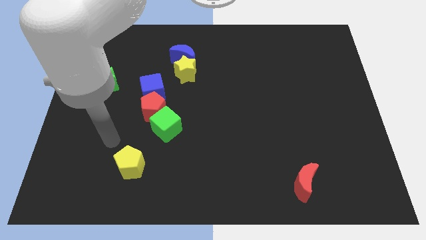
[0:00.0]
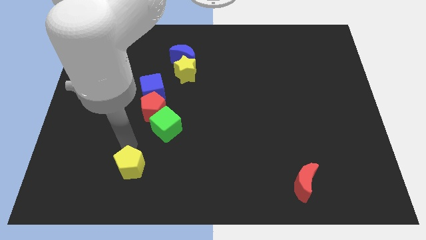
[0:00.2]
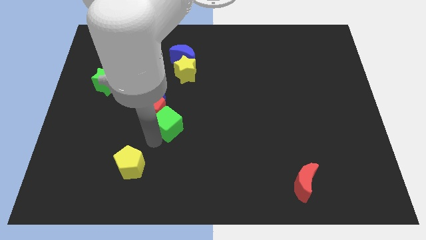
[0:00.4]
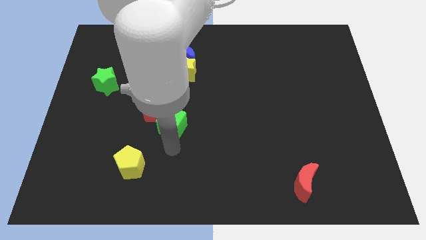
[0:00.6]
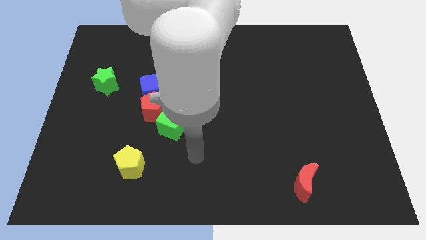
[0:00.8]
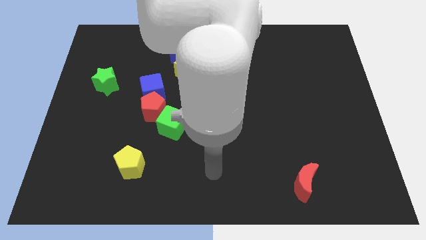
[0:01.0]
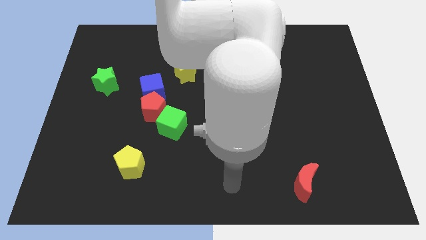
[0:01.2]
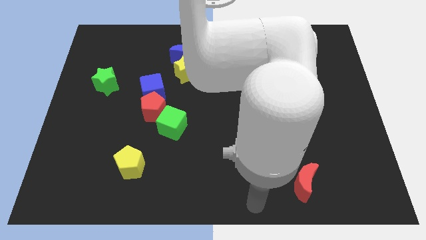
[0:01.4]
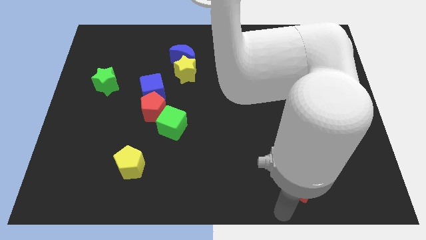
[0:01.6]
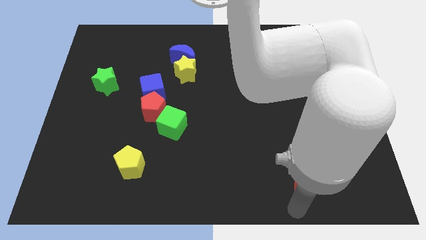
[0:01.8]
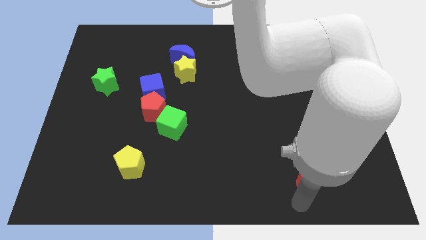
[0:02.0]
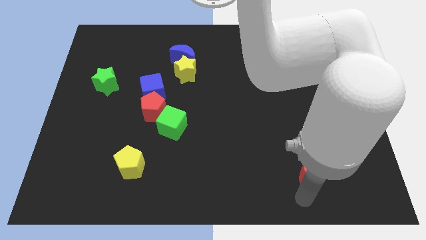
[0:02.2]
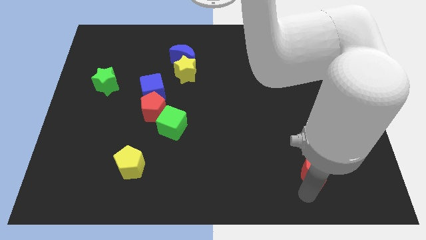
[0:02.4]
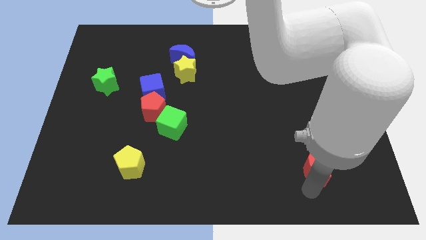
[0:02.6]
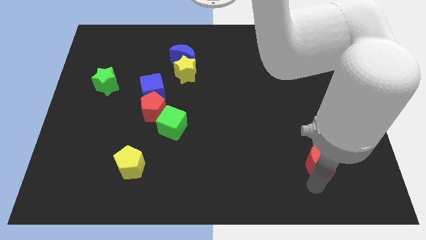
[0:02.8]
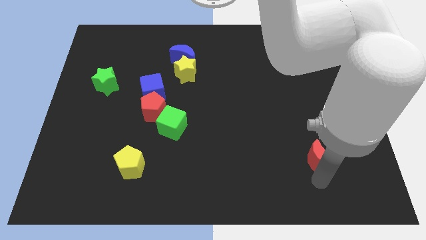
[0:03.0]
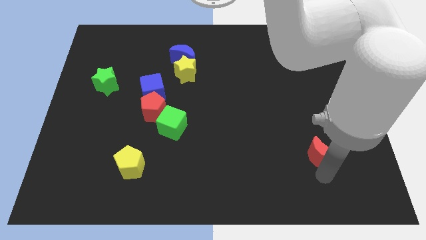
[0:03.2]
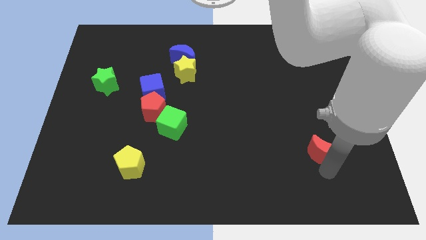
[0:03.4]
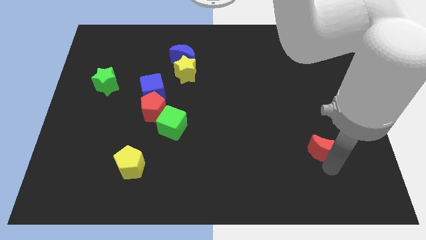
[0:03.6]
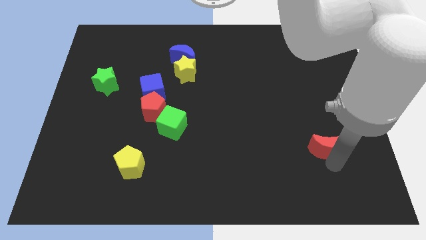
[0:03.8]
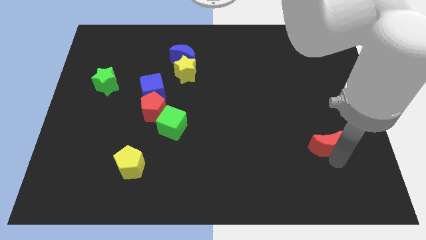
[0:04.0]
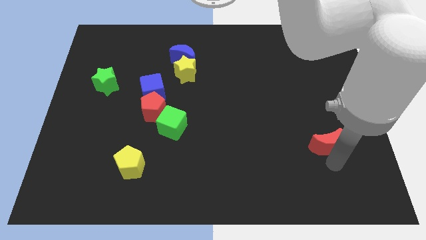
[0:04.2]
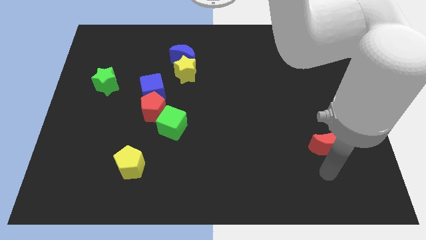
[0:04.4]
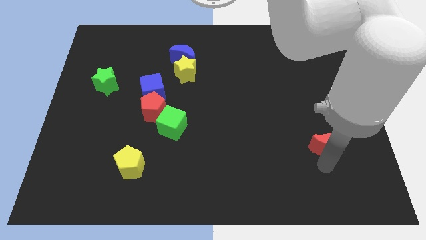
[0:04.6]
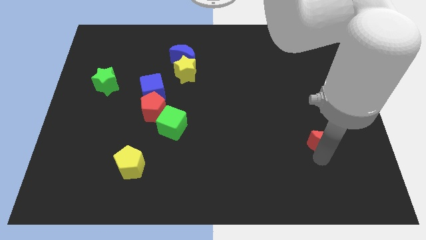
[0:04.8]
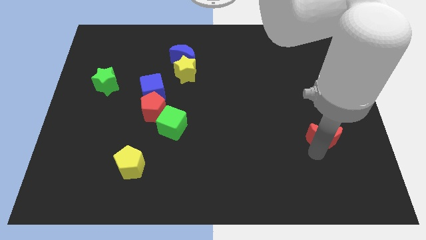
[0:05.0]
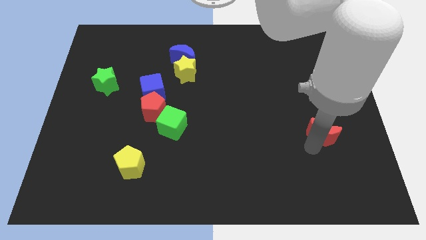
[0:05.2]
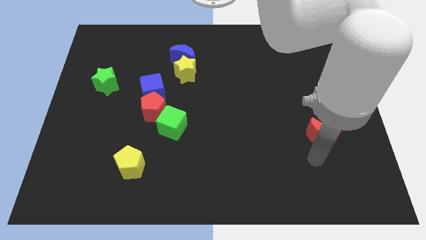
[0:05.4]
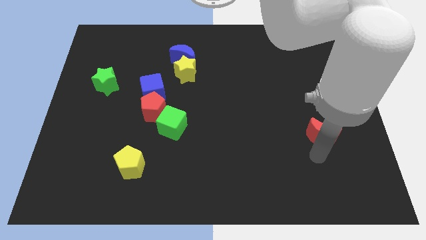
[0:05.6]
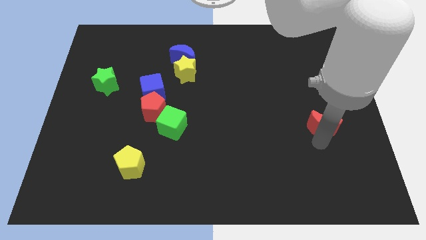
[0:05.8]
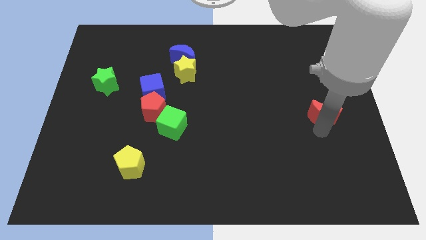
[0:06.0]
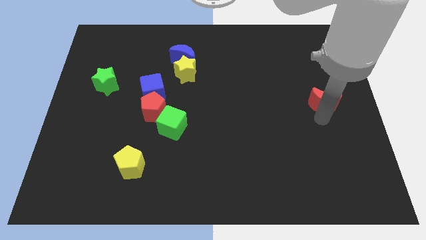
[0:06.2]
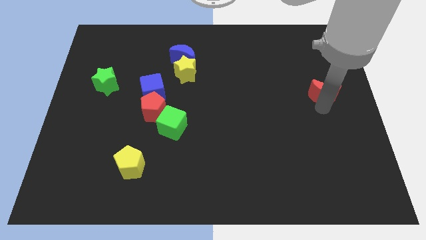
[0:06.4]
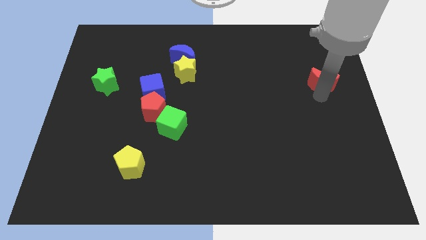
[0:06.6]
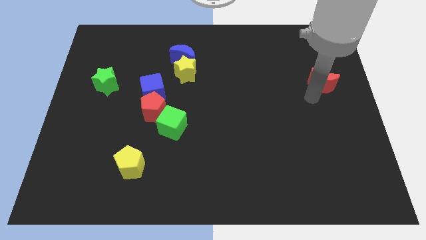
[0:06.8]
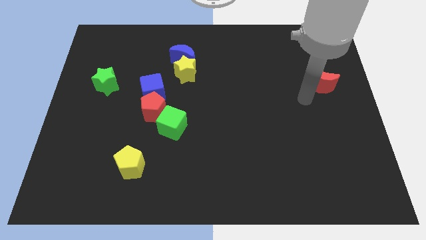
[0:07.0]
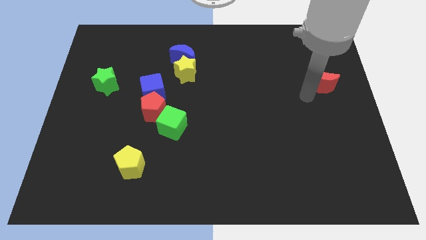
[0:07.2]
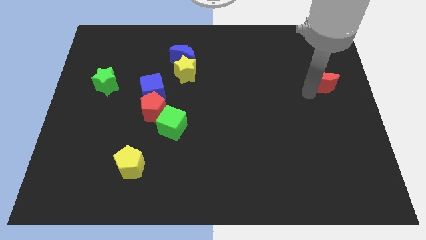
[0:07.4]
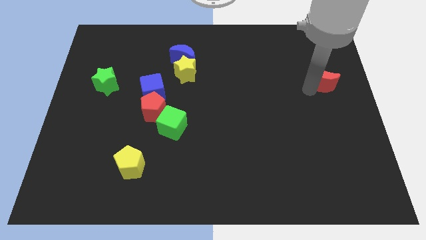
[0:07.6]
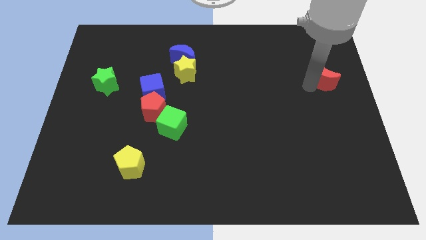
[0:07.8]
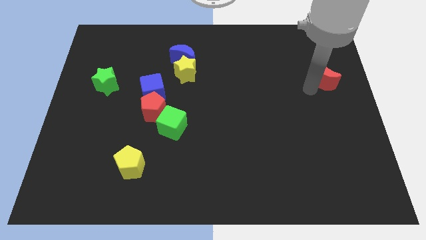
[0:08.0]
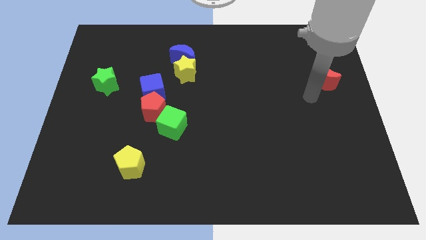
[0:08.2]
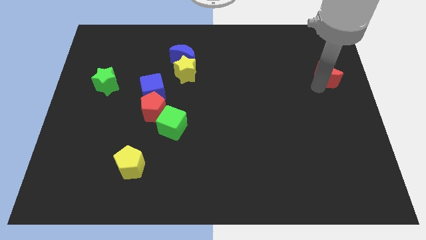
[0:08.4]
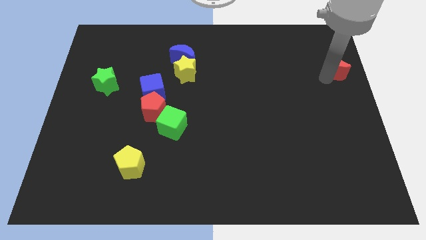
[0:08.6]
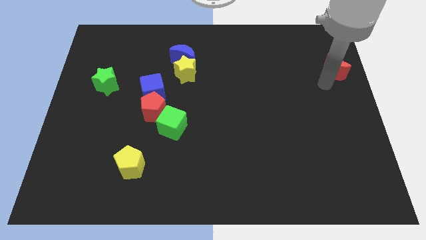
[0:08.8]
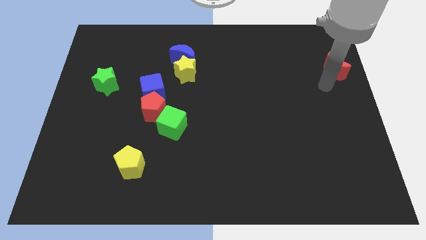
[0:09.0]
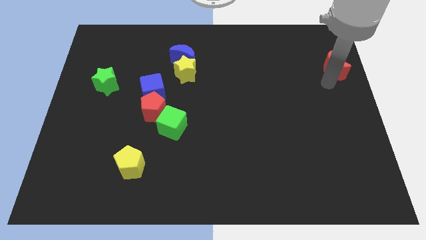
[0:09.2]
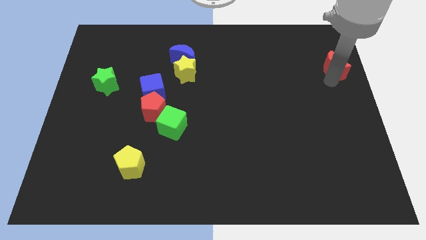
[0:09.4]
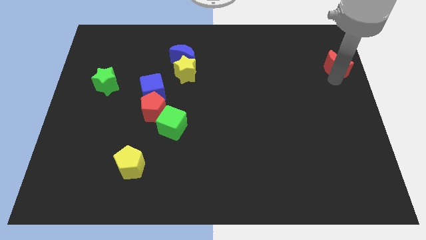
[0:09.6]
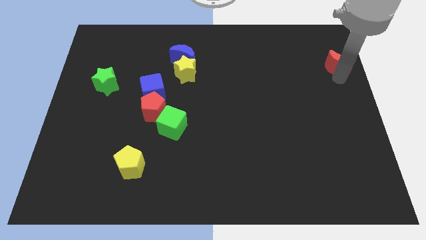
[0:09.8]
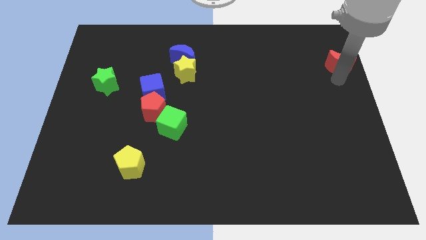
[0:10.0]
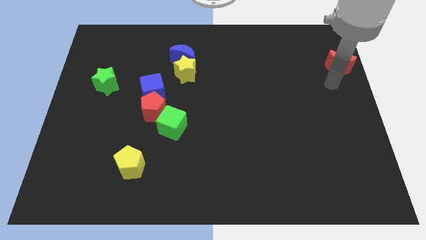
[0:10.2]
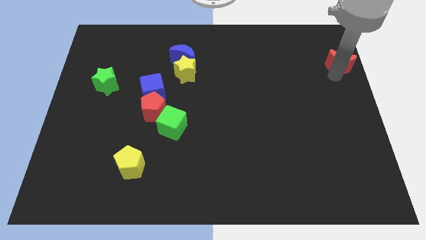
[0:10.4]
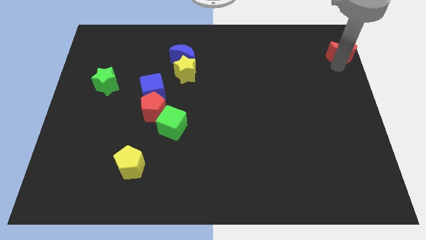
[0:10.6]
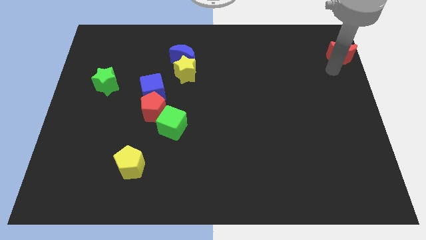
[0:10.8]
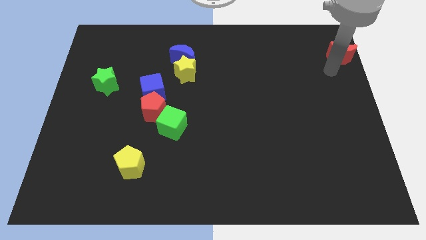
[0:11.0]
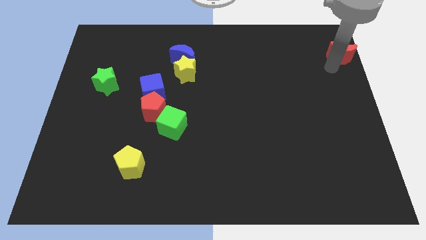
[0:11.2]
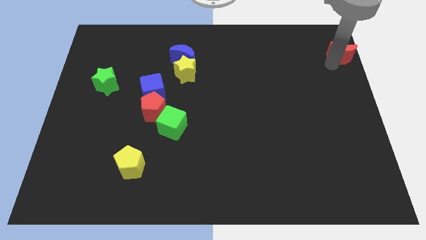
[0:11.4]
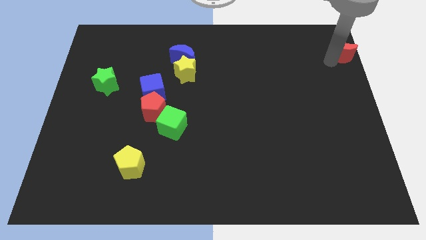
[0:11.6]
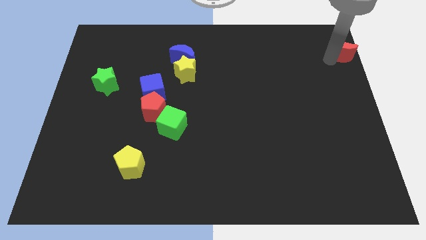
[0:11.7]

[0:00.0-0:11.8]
slide the red moon to the top right
